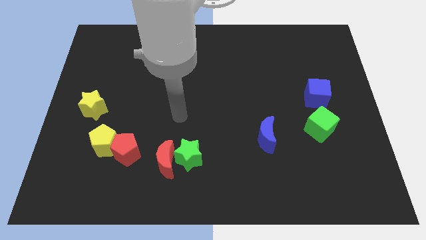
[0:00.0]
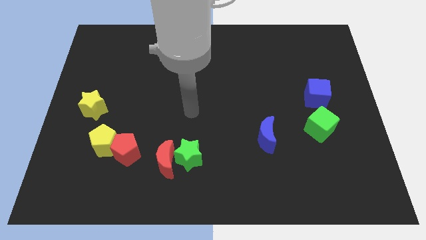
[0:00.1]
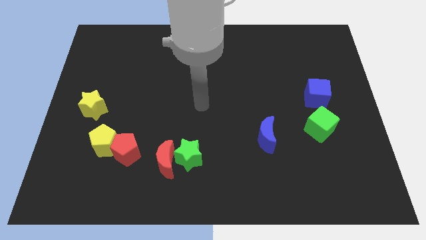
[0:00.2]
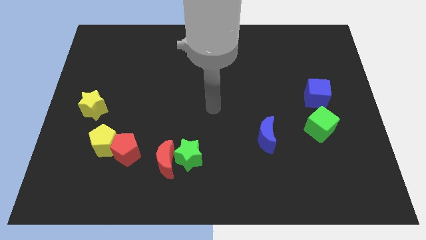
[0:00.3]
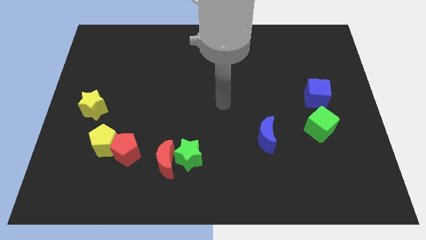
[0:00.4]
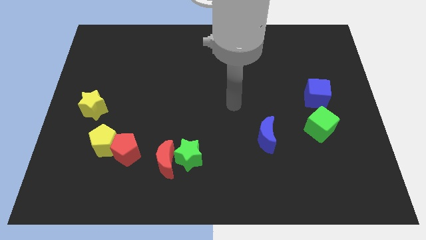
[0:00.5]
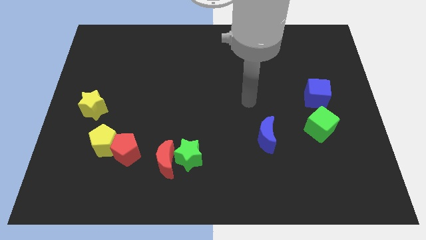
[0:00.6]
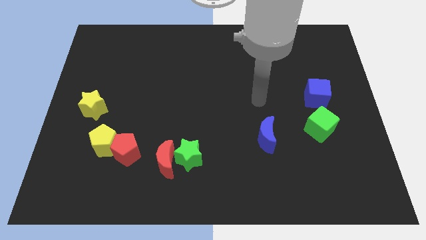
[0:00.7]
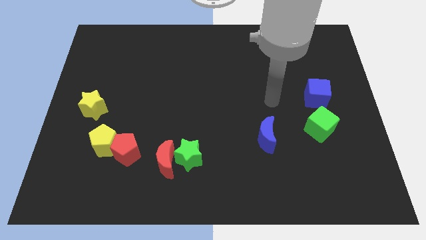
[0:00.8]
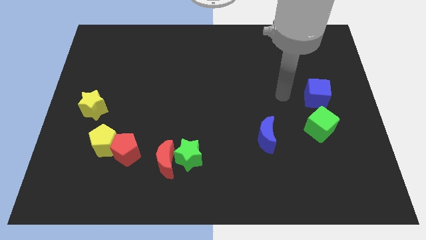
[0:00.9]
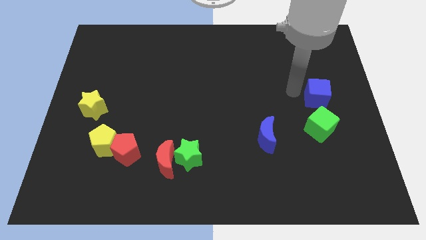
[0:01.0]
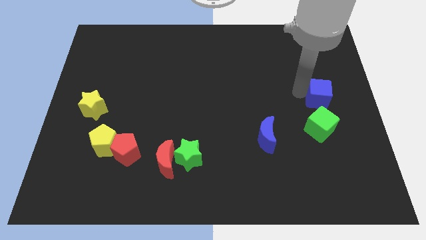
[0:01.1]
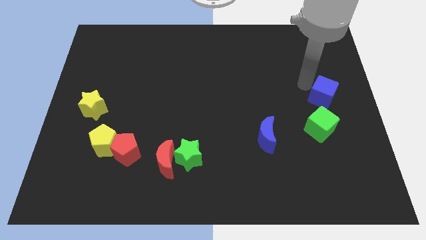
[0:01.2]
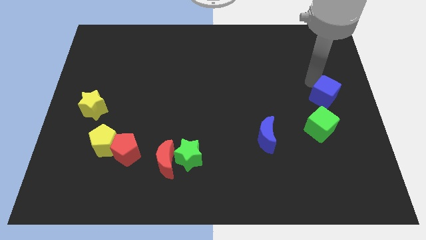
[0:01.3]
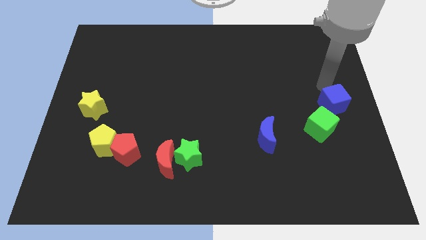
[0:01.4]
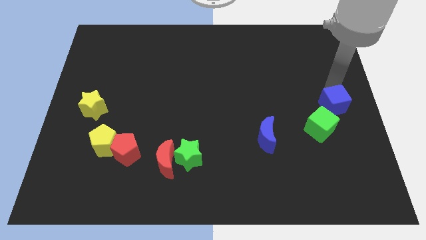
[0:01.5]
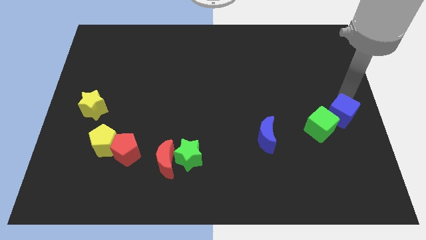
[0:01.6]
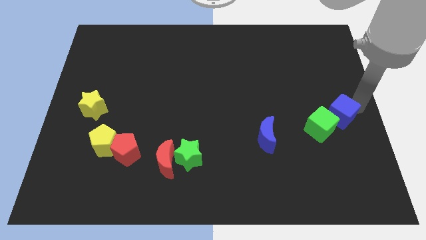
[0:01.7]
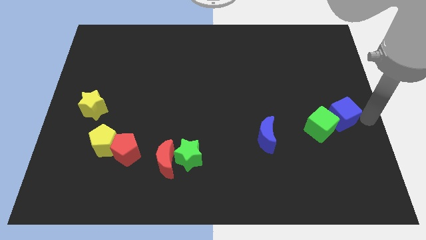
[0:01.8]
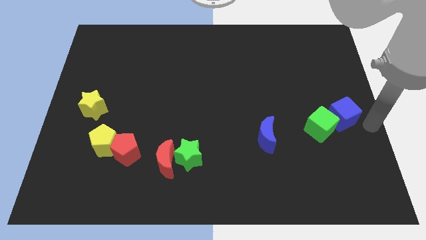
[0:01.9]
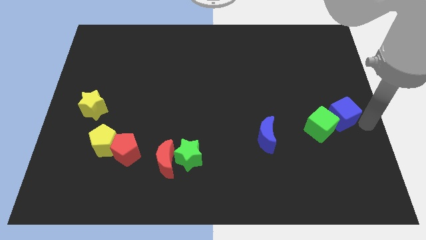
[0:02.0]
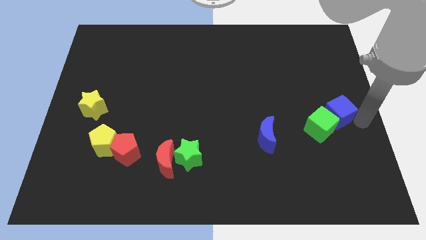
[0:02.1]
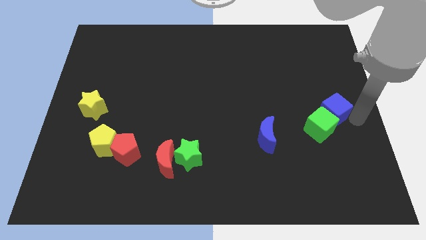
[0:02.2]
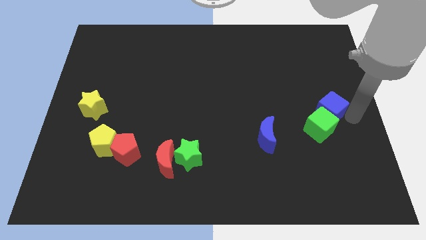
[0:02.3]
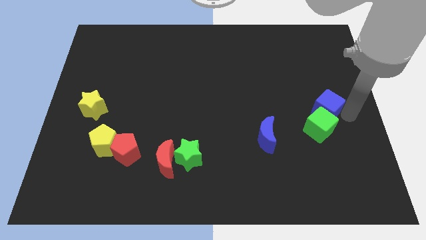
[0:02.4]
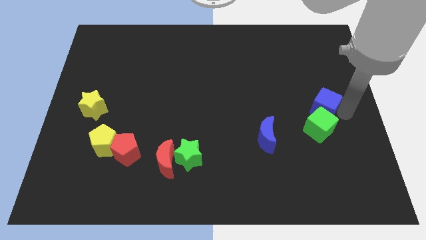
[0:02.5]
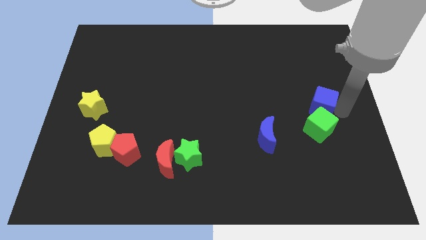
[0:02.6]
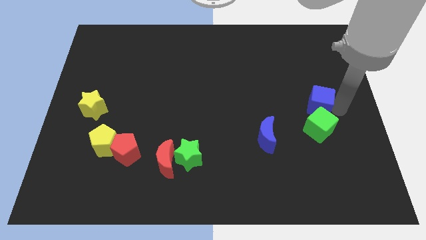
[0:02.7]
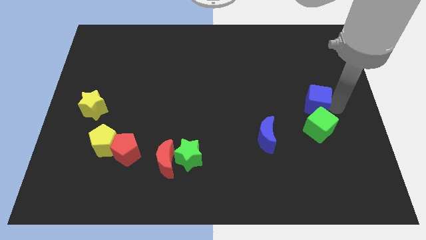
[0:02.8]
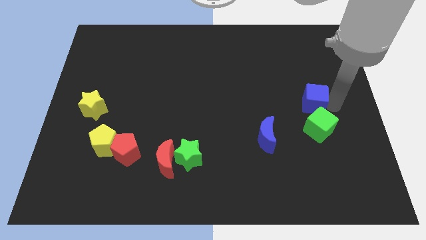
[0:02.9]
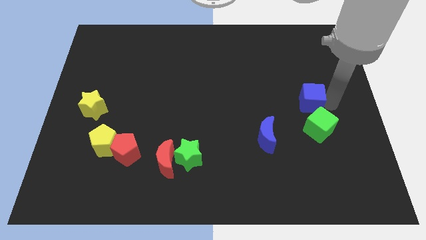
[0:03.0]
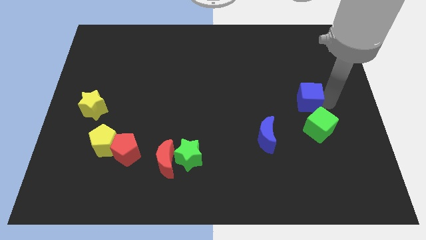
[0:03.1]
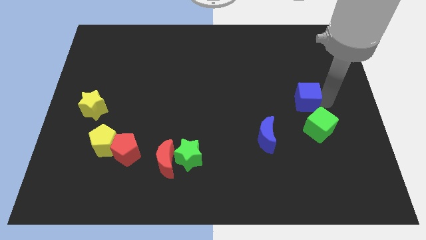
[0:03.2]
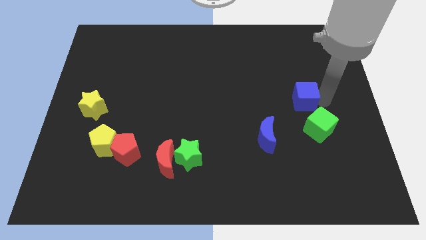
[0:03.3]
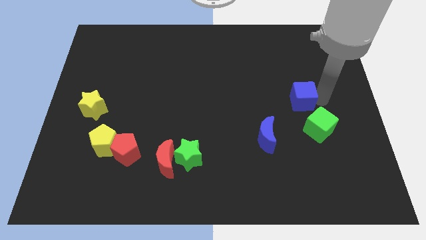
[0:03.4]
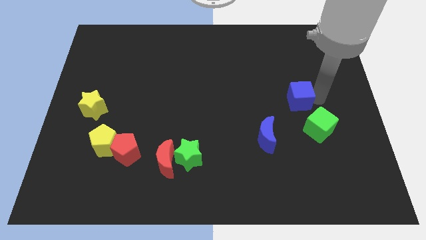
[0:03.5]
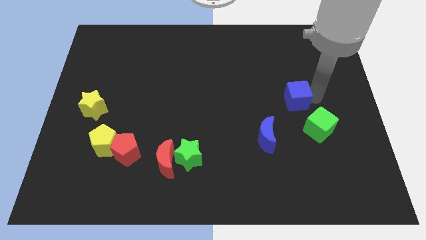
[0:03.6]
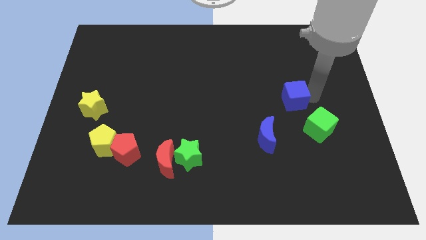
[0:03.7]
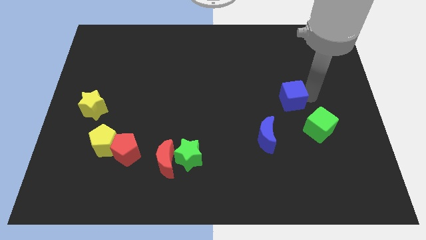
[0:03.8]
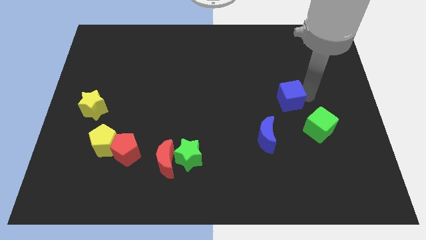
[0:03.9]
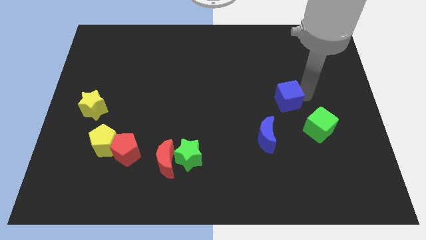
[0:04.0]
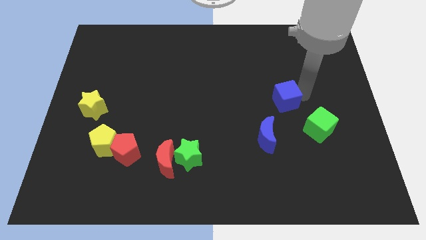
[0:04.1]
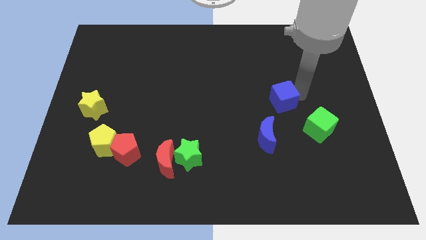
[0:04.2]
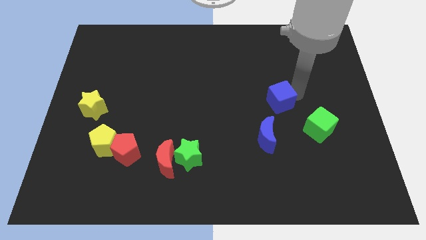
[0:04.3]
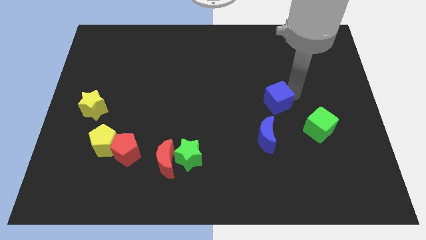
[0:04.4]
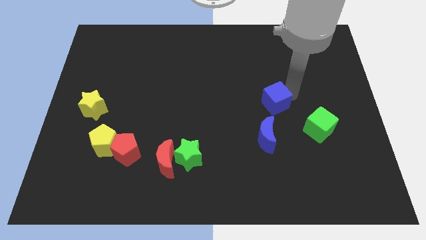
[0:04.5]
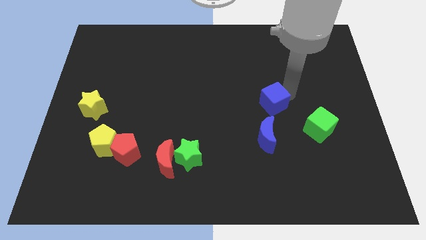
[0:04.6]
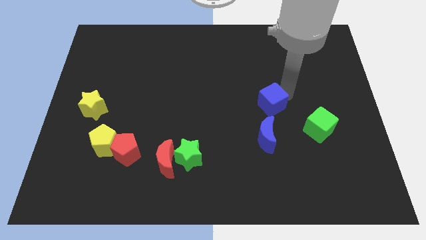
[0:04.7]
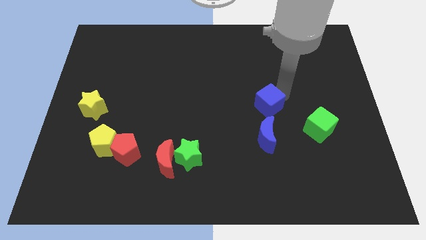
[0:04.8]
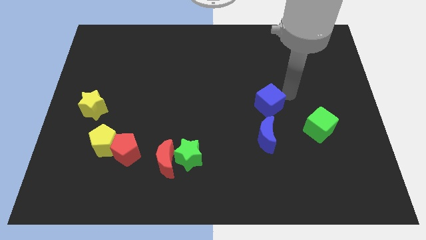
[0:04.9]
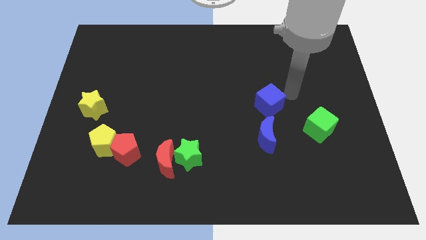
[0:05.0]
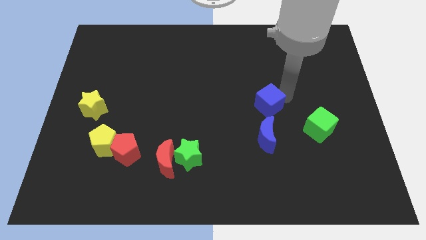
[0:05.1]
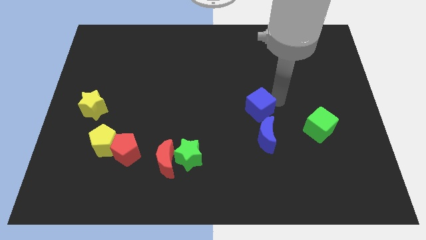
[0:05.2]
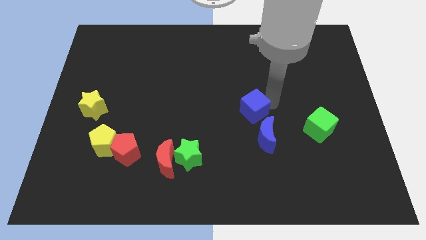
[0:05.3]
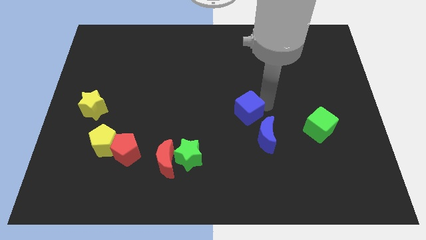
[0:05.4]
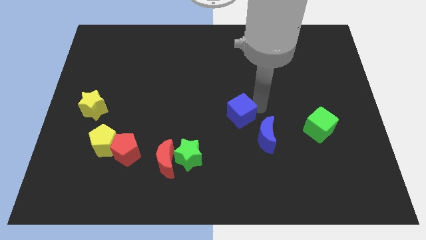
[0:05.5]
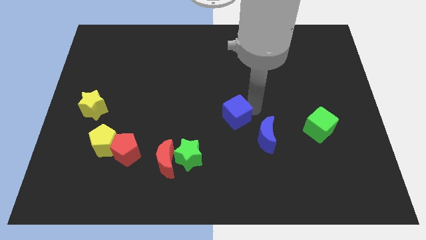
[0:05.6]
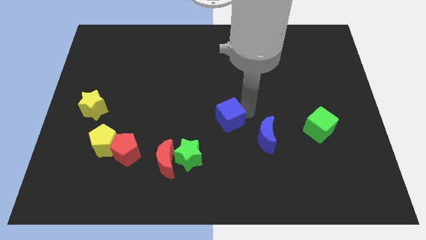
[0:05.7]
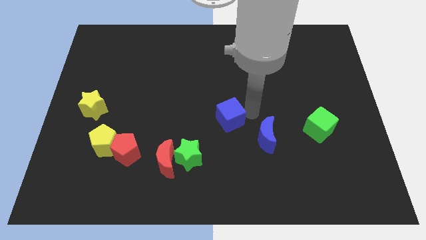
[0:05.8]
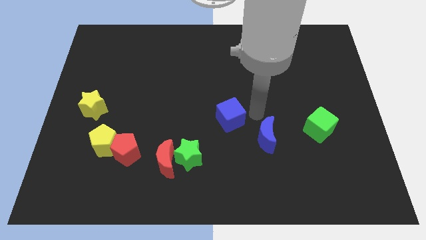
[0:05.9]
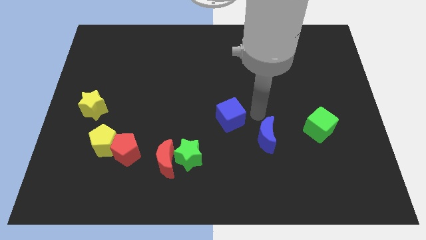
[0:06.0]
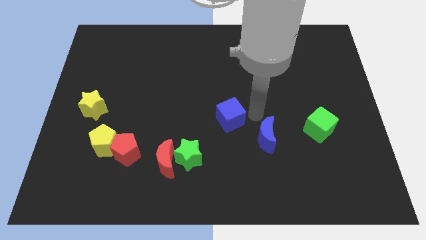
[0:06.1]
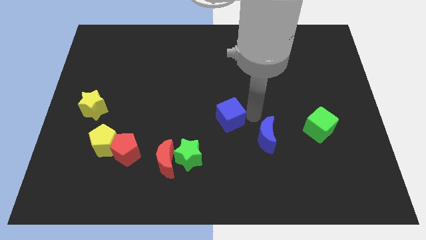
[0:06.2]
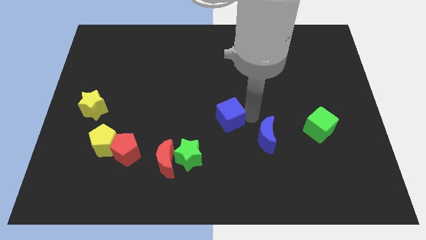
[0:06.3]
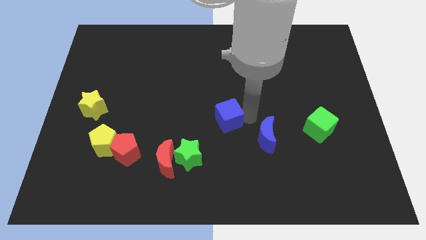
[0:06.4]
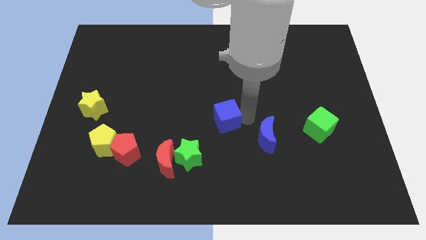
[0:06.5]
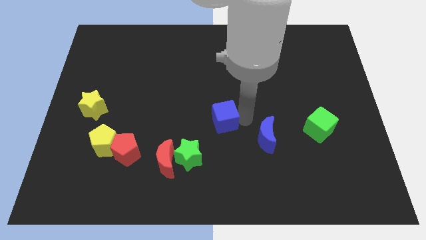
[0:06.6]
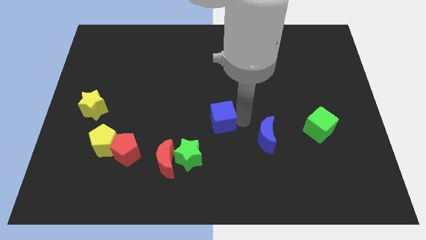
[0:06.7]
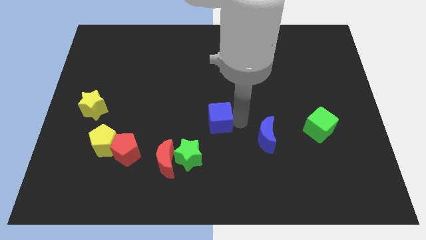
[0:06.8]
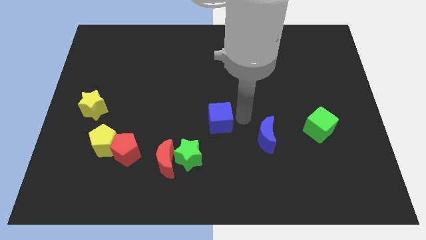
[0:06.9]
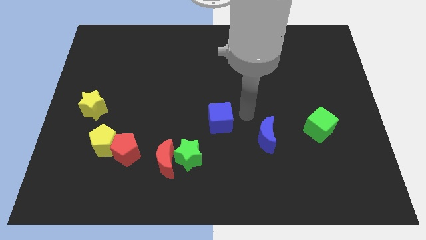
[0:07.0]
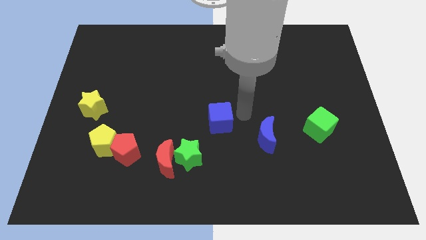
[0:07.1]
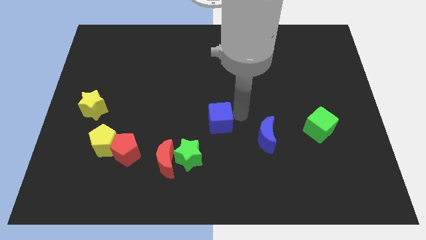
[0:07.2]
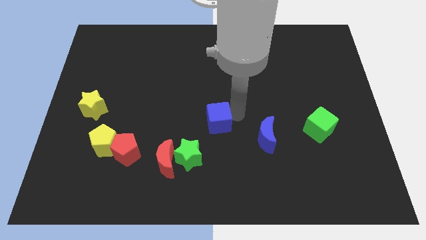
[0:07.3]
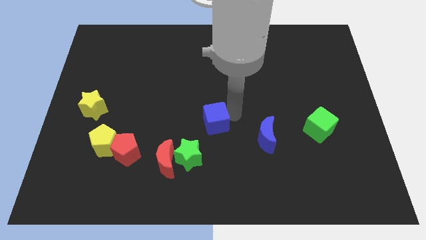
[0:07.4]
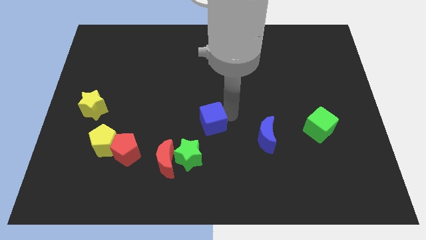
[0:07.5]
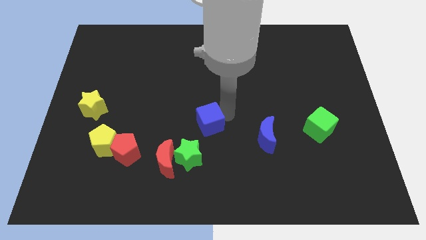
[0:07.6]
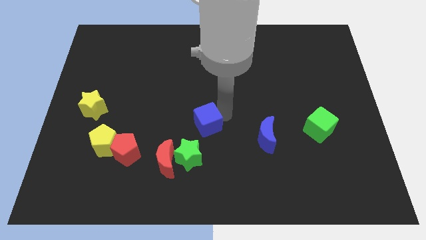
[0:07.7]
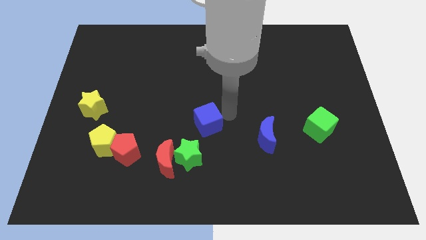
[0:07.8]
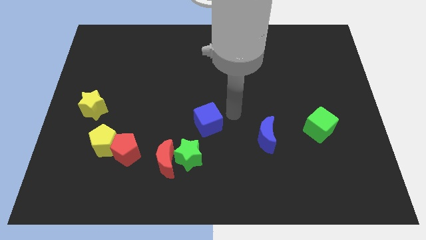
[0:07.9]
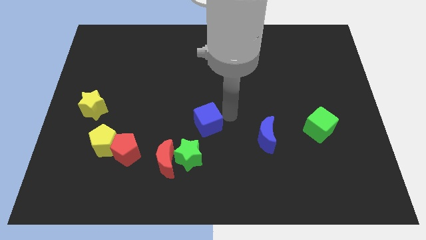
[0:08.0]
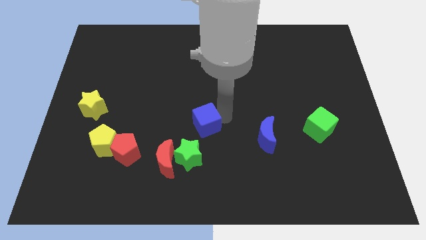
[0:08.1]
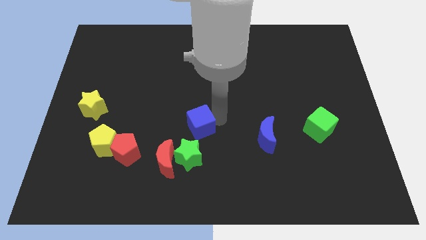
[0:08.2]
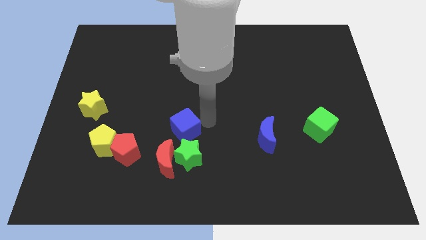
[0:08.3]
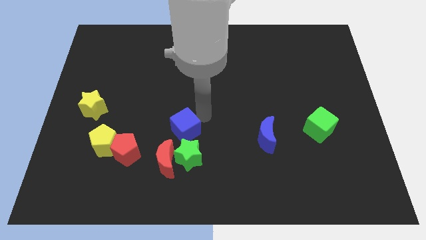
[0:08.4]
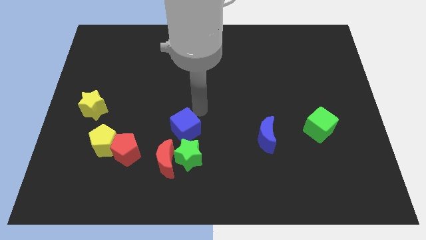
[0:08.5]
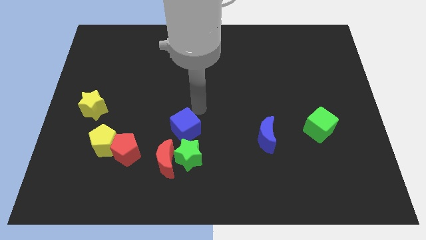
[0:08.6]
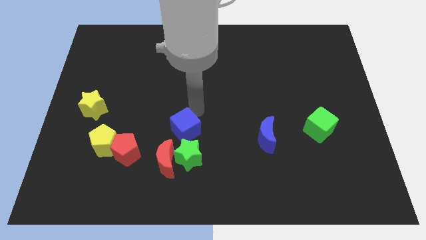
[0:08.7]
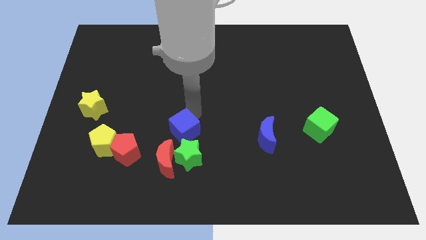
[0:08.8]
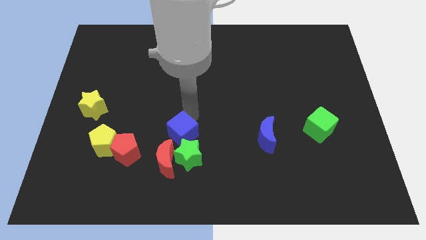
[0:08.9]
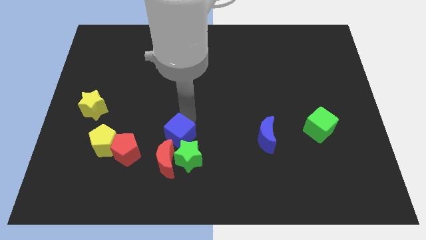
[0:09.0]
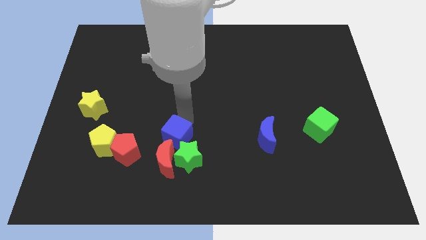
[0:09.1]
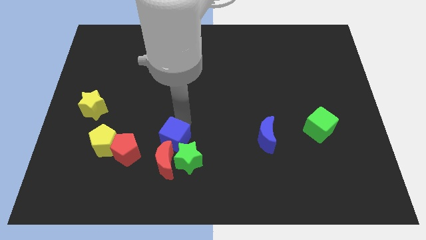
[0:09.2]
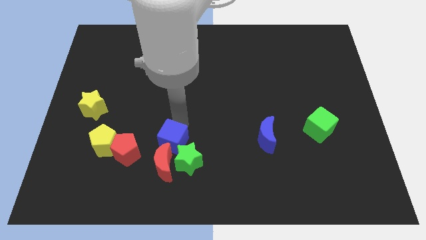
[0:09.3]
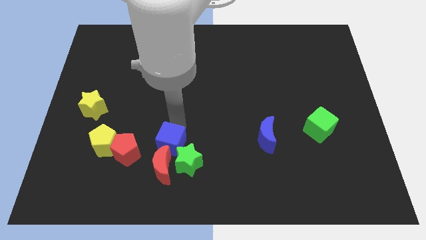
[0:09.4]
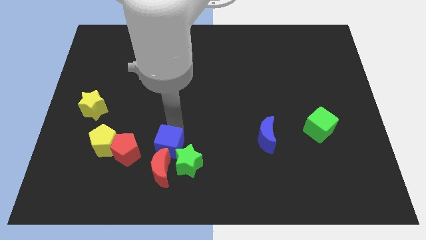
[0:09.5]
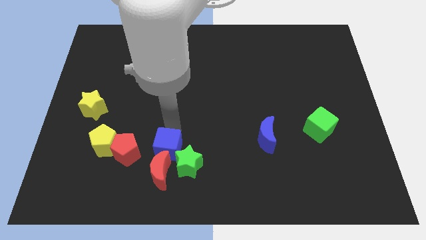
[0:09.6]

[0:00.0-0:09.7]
slide the blue cube towards the red moon
